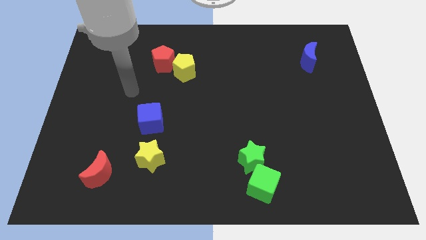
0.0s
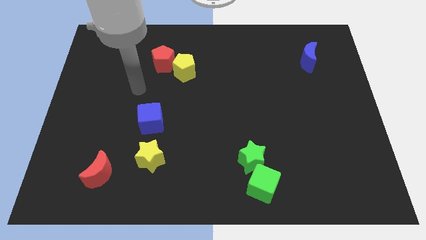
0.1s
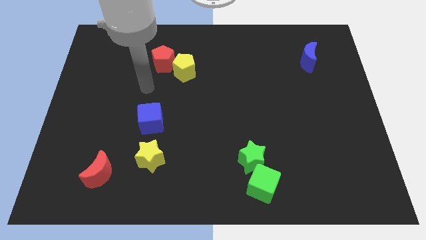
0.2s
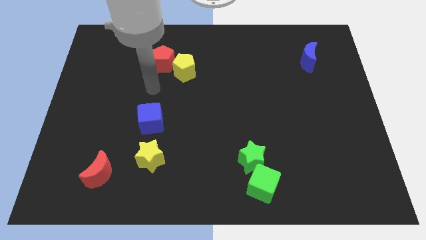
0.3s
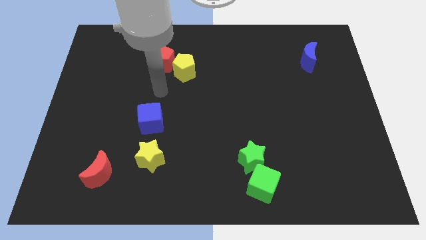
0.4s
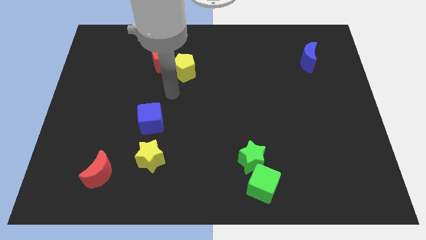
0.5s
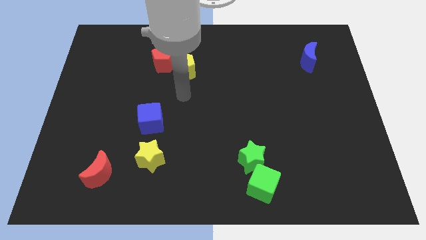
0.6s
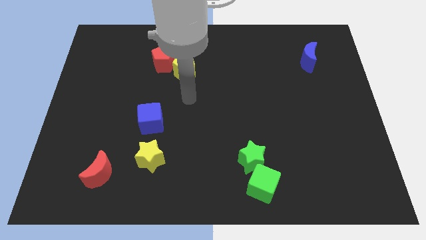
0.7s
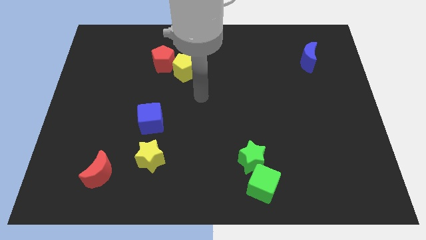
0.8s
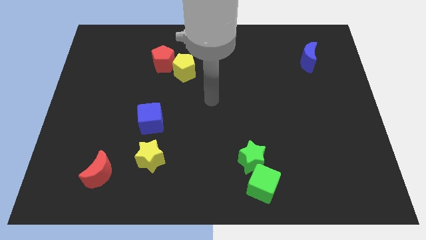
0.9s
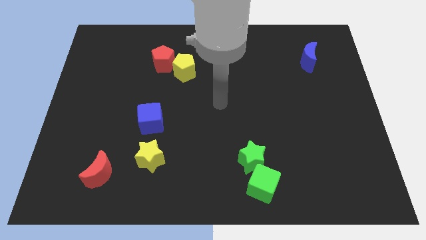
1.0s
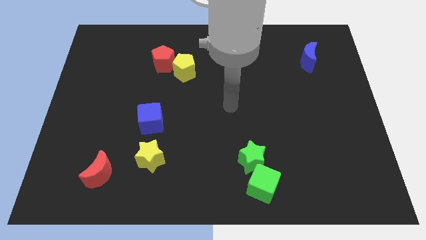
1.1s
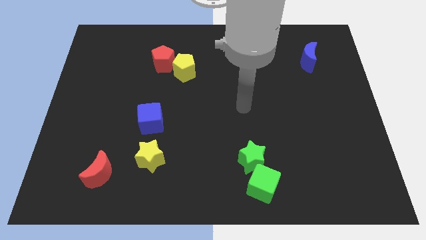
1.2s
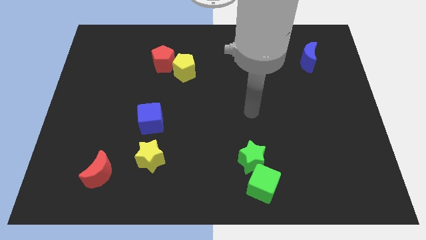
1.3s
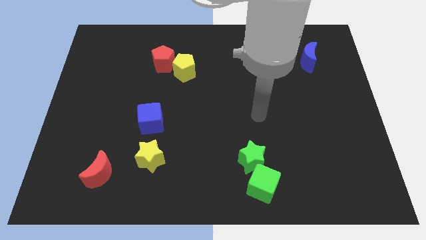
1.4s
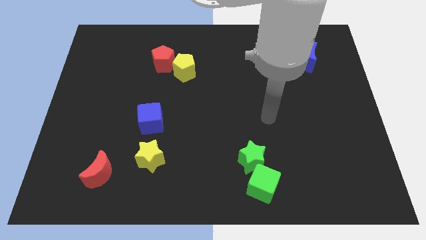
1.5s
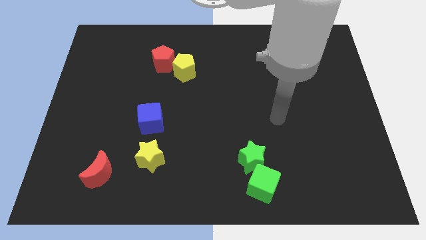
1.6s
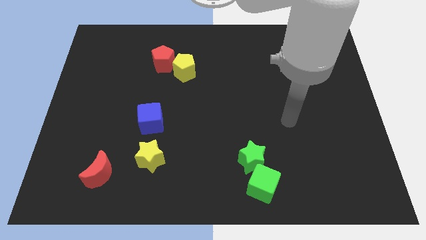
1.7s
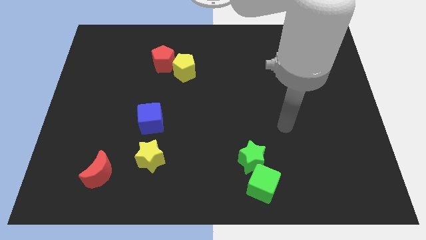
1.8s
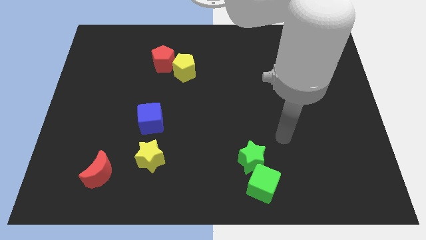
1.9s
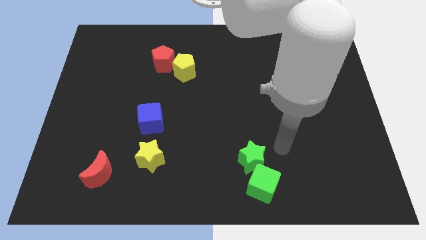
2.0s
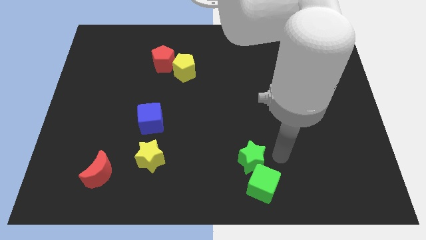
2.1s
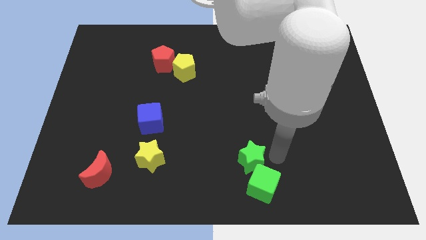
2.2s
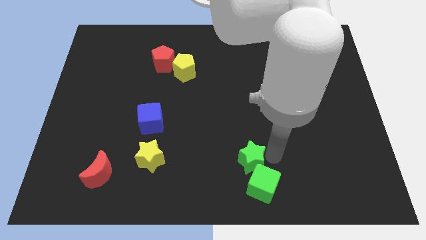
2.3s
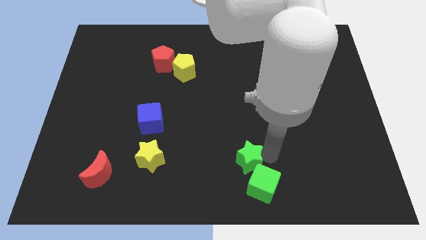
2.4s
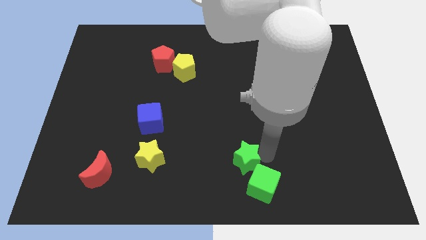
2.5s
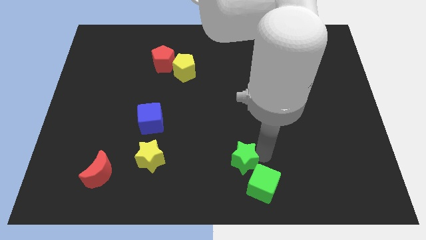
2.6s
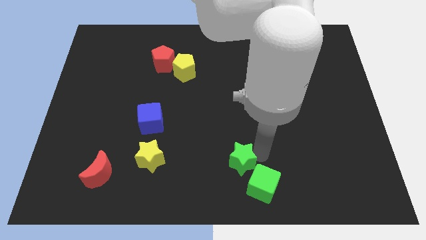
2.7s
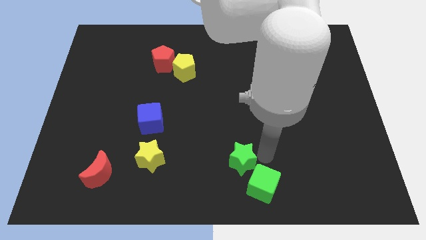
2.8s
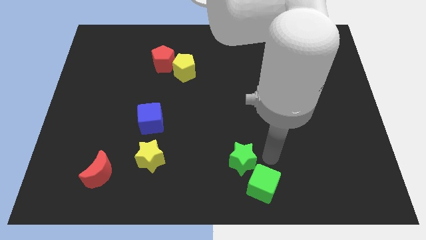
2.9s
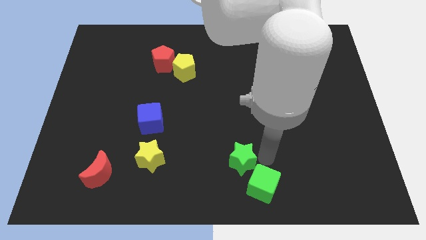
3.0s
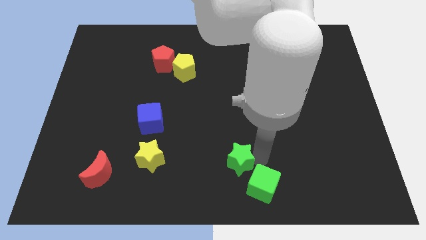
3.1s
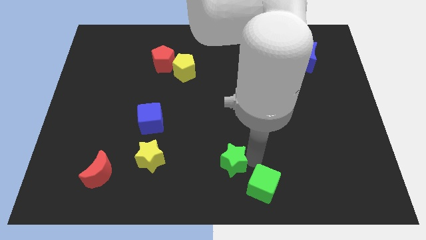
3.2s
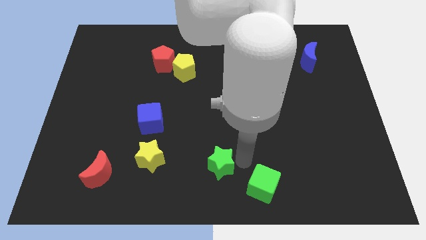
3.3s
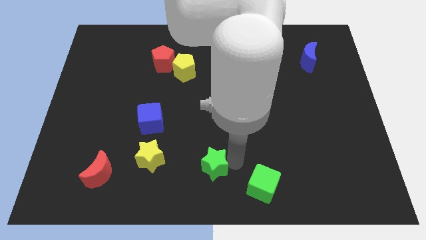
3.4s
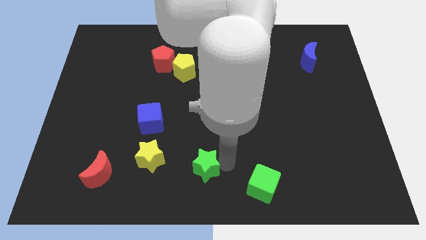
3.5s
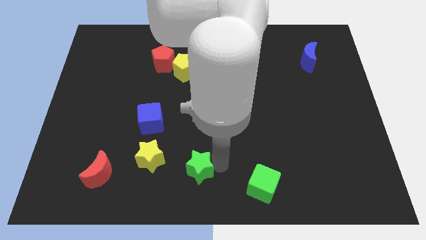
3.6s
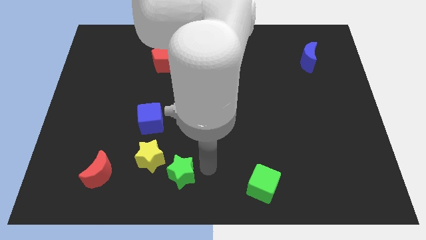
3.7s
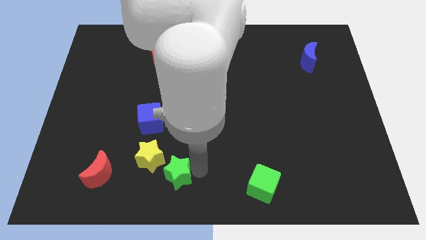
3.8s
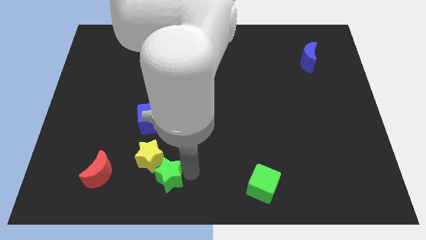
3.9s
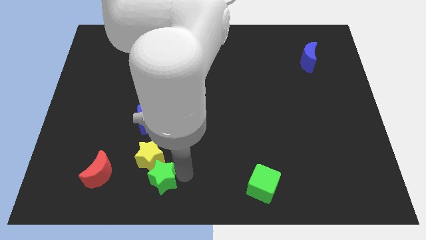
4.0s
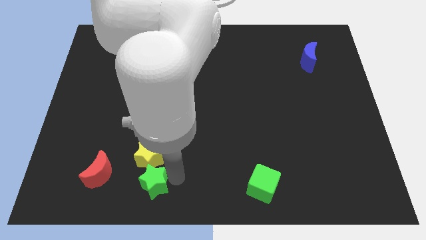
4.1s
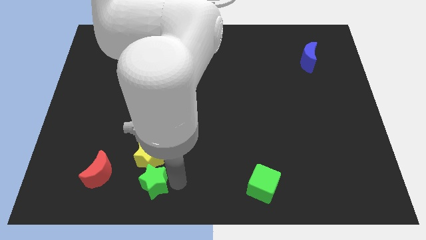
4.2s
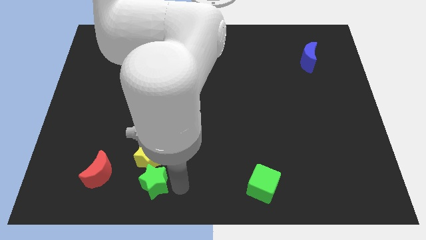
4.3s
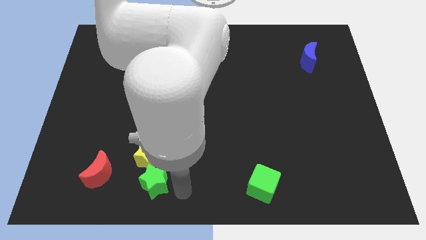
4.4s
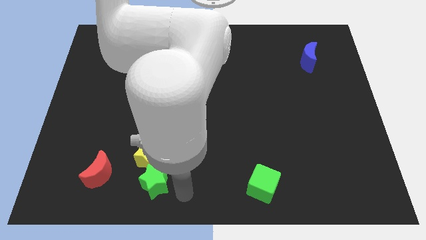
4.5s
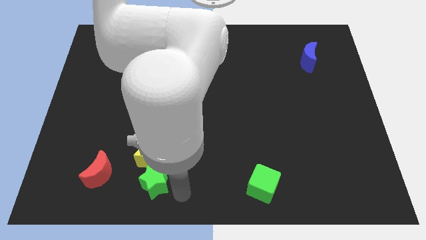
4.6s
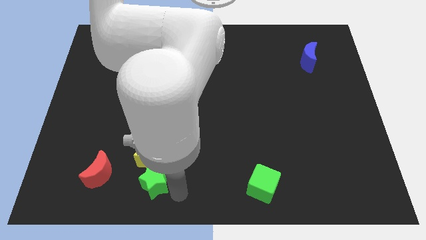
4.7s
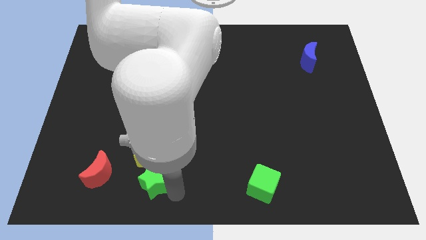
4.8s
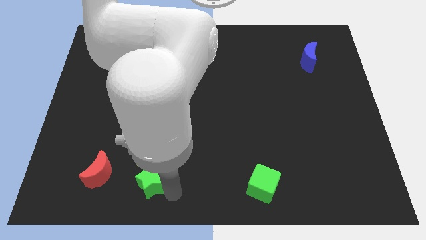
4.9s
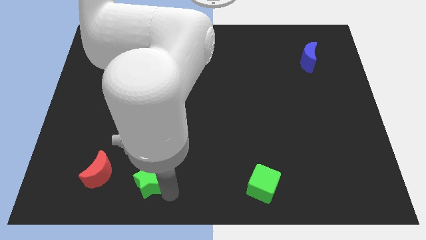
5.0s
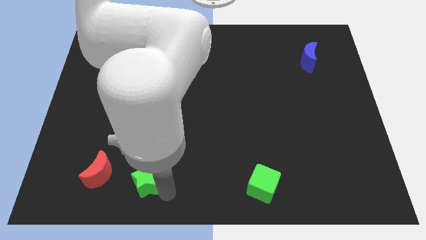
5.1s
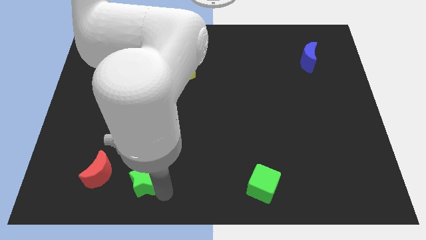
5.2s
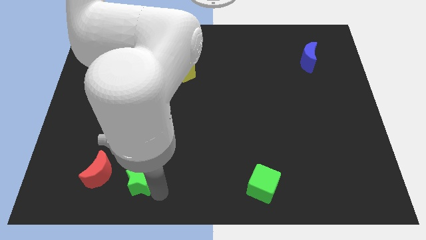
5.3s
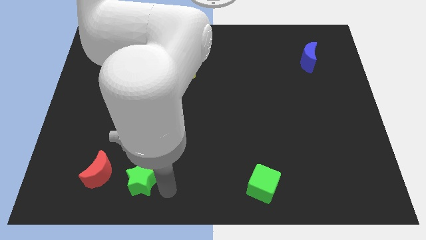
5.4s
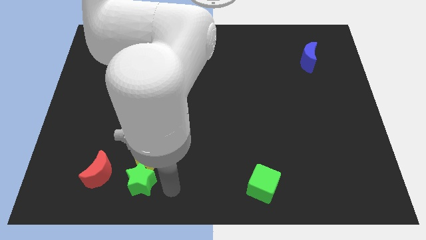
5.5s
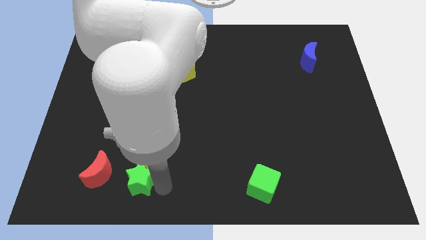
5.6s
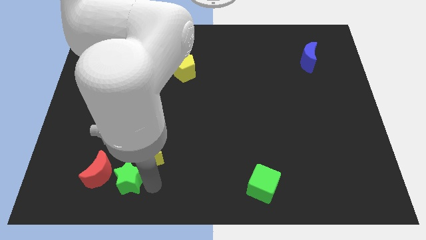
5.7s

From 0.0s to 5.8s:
slide the green star next to the red moon

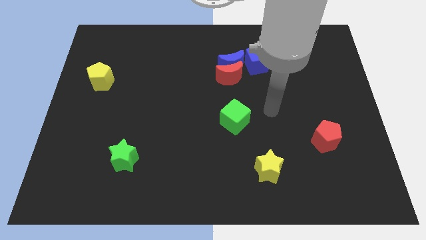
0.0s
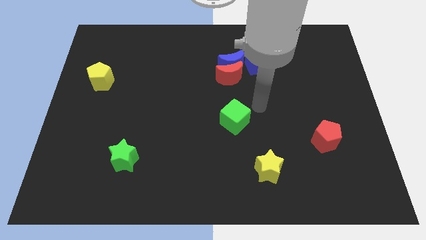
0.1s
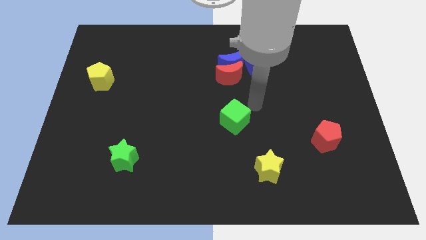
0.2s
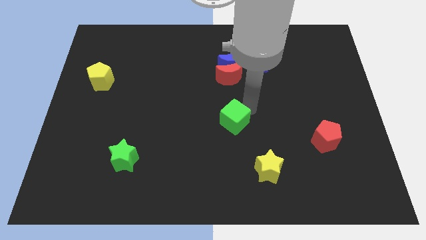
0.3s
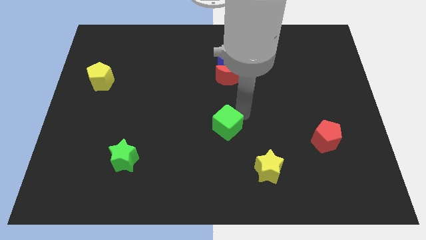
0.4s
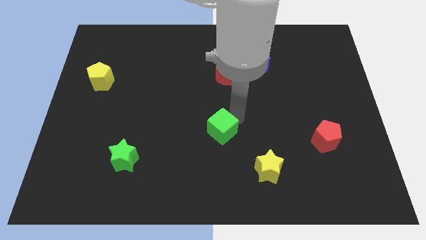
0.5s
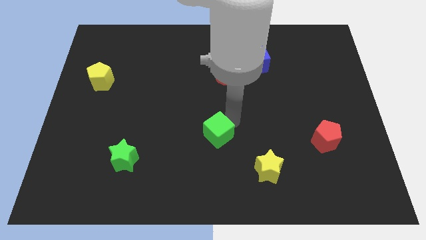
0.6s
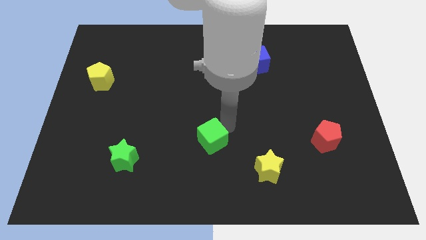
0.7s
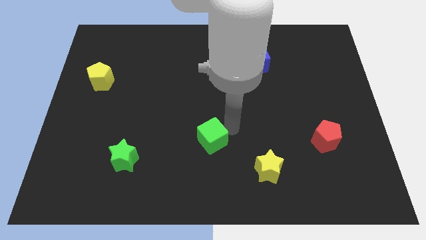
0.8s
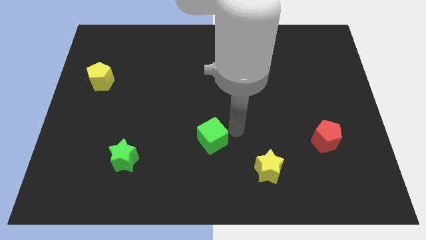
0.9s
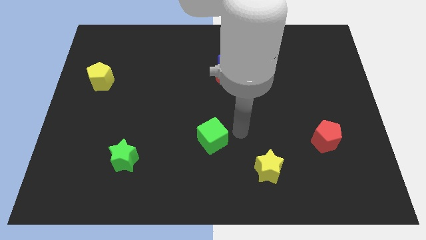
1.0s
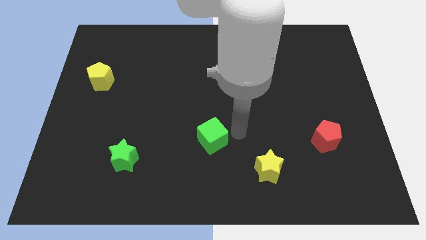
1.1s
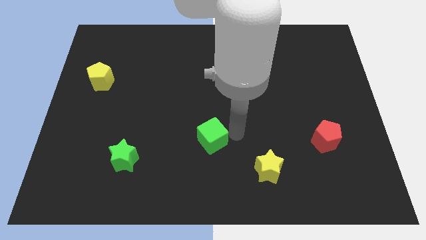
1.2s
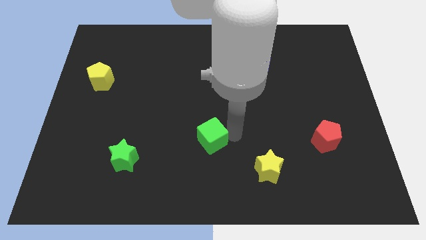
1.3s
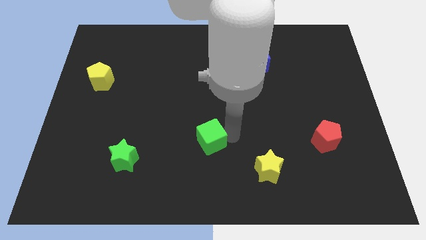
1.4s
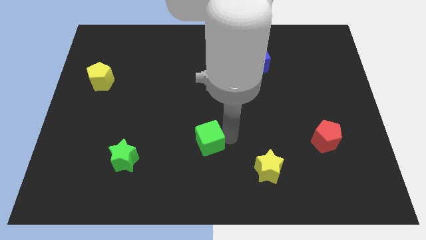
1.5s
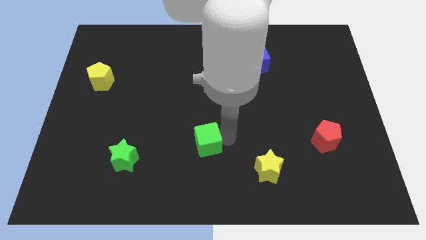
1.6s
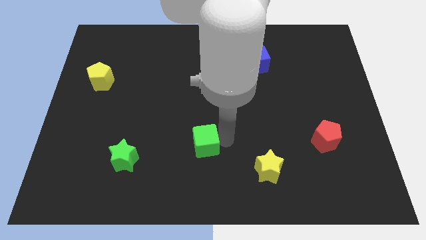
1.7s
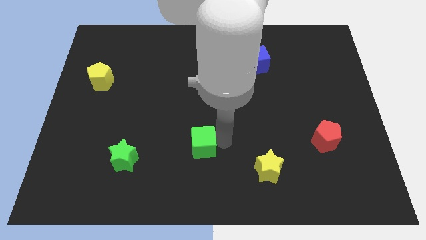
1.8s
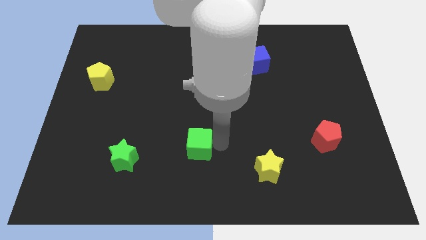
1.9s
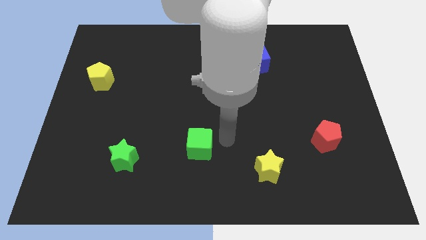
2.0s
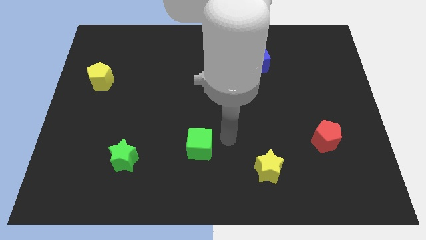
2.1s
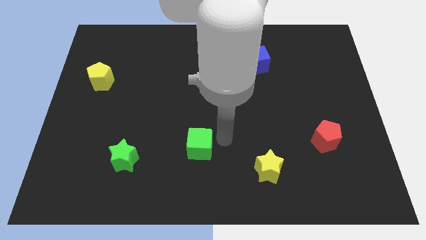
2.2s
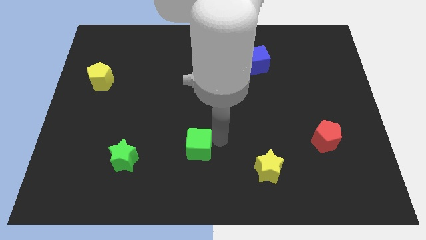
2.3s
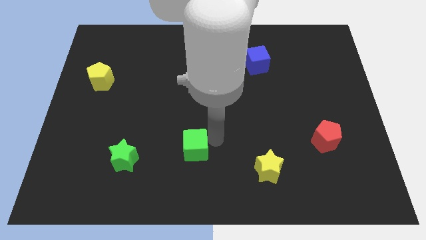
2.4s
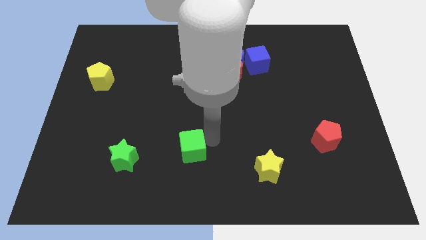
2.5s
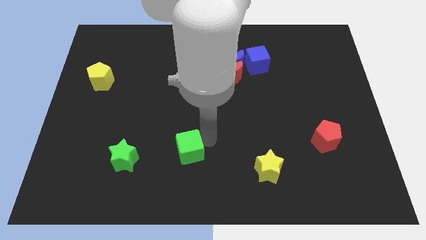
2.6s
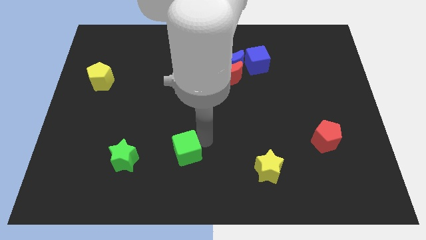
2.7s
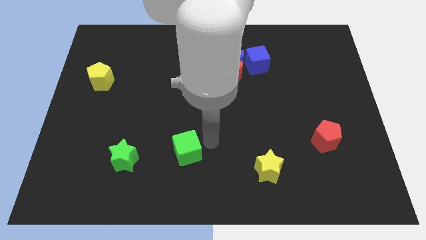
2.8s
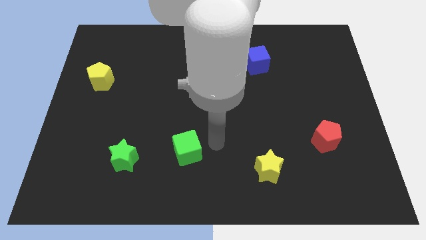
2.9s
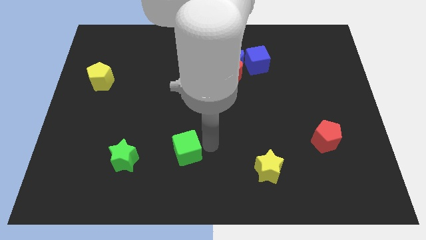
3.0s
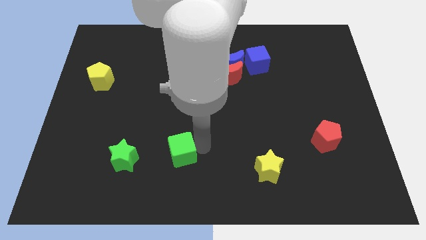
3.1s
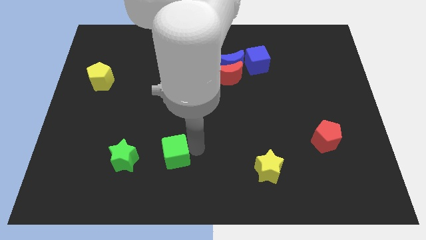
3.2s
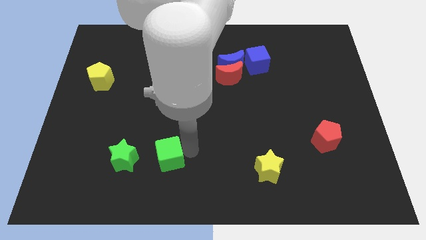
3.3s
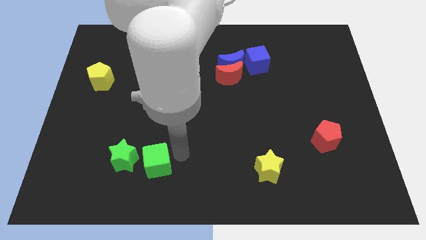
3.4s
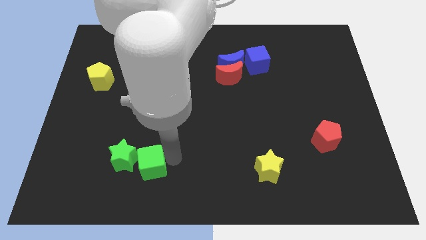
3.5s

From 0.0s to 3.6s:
push the green cube to the green star
